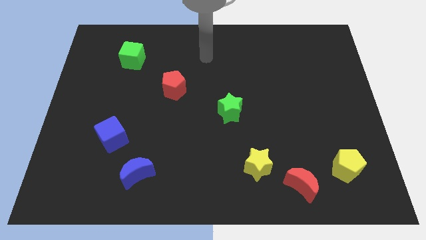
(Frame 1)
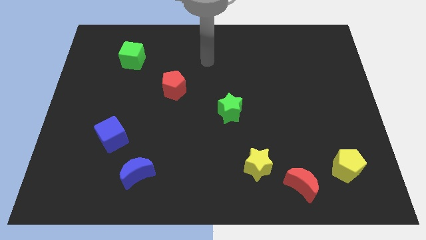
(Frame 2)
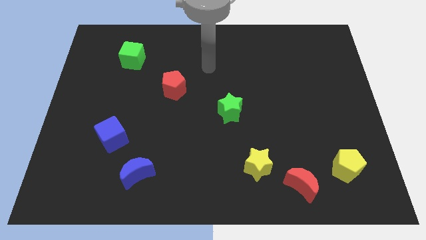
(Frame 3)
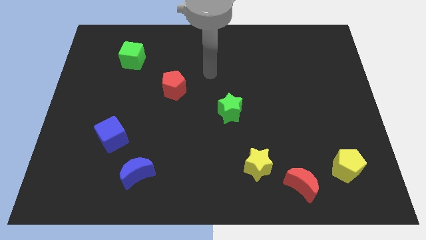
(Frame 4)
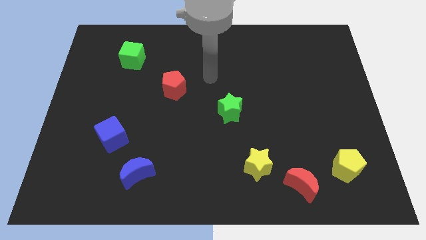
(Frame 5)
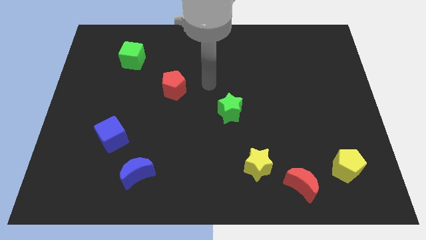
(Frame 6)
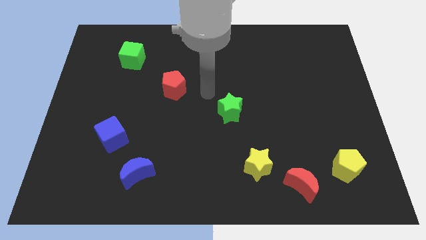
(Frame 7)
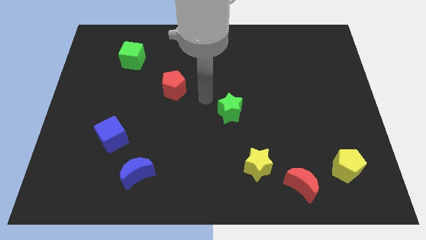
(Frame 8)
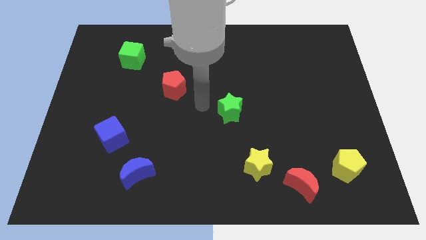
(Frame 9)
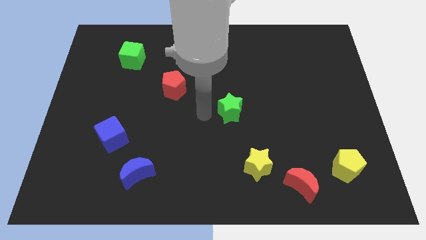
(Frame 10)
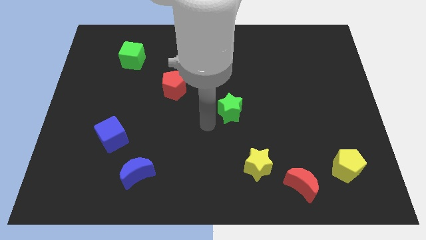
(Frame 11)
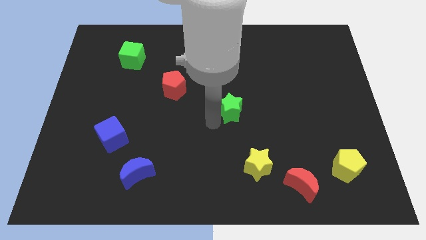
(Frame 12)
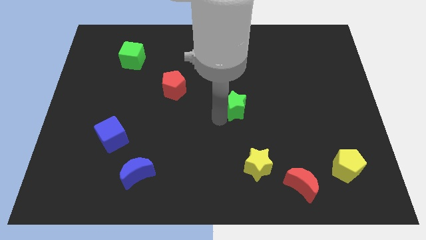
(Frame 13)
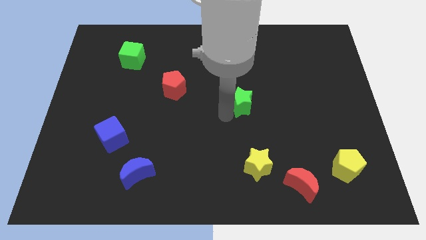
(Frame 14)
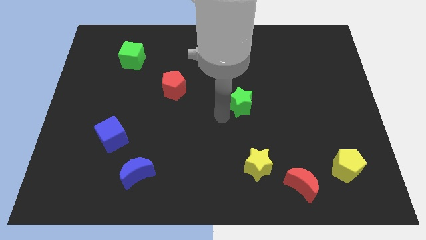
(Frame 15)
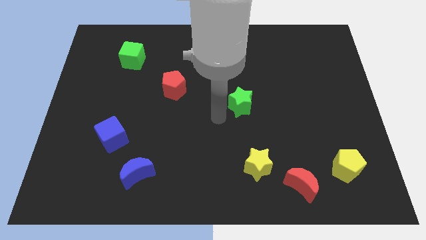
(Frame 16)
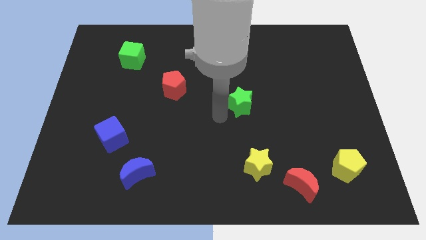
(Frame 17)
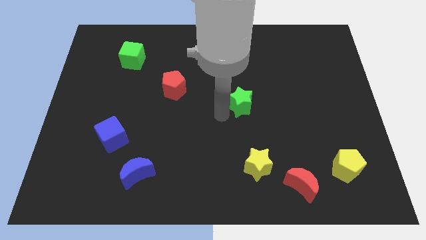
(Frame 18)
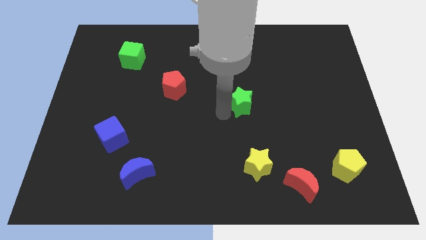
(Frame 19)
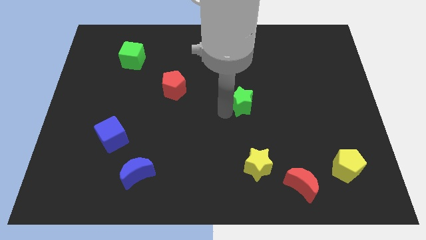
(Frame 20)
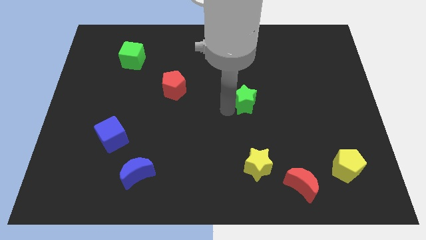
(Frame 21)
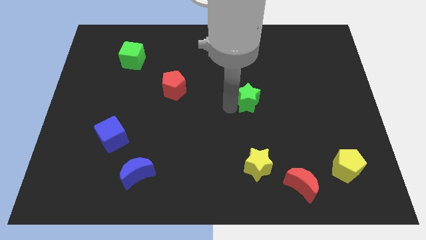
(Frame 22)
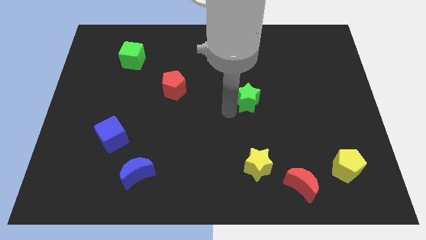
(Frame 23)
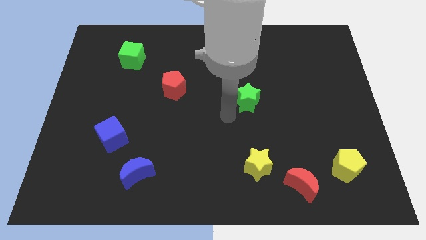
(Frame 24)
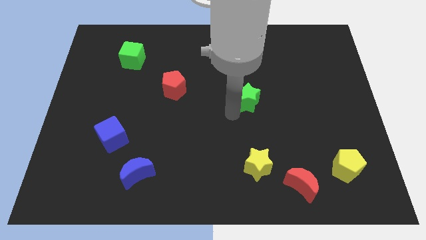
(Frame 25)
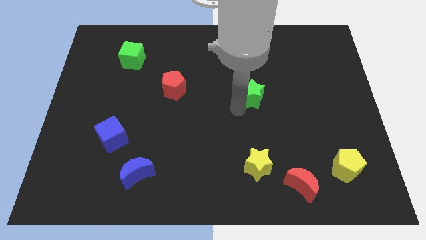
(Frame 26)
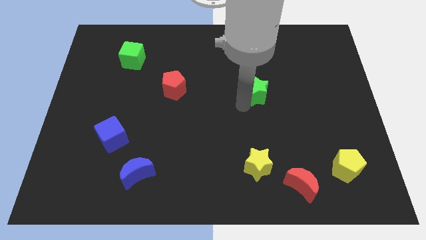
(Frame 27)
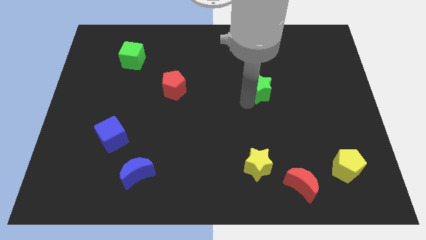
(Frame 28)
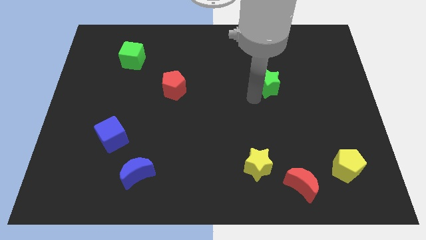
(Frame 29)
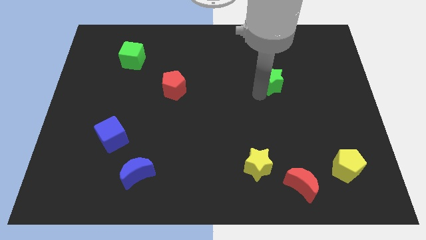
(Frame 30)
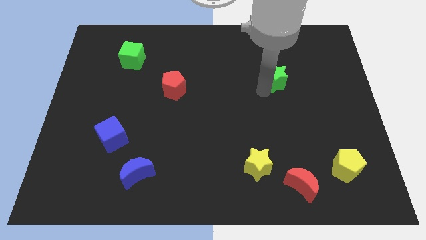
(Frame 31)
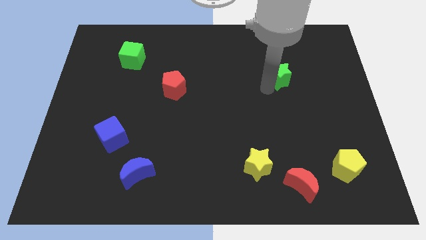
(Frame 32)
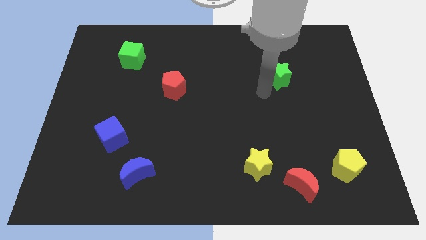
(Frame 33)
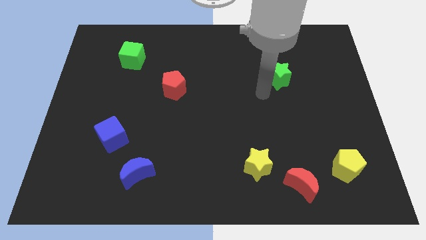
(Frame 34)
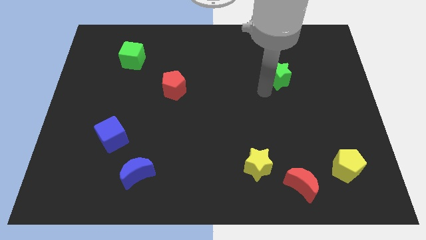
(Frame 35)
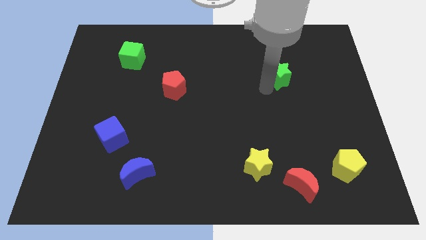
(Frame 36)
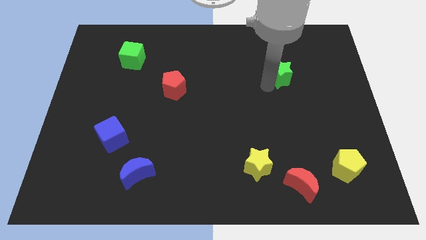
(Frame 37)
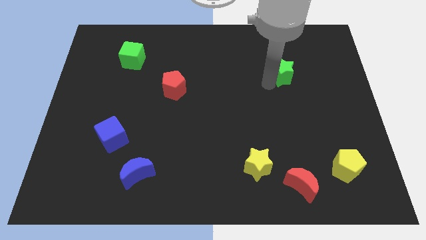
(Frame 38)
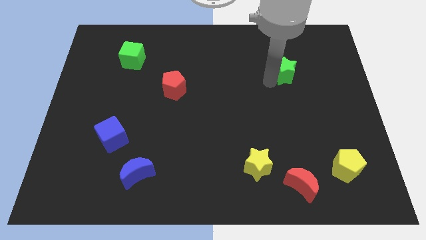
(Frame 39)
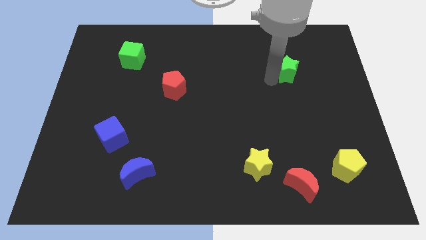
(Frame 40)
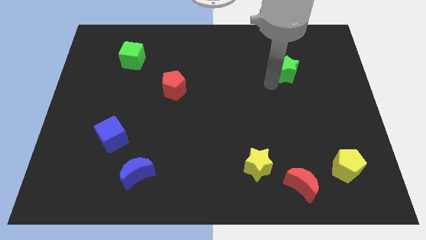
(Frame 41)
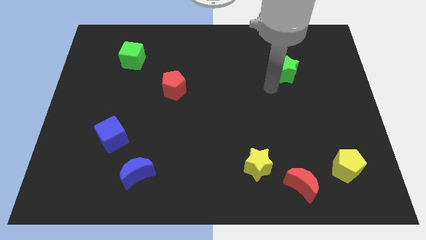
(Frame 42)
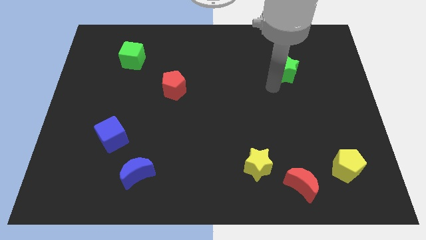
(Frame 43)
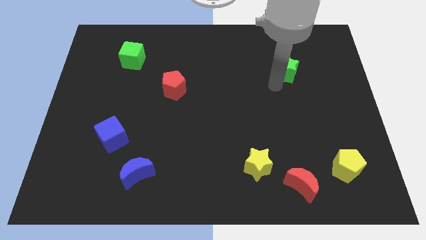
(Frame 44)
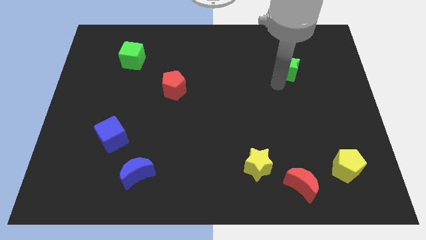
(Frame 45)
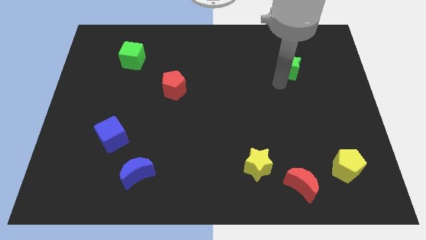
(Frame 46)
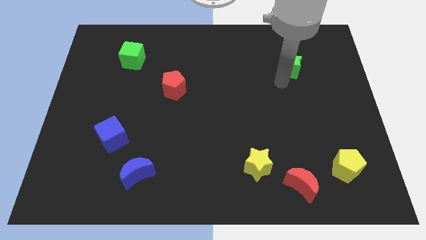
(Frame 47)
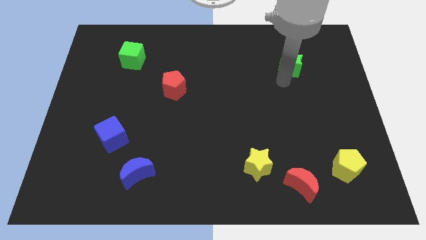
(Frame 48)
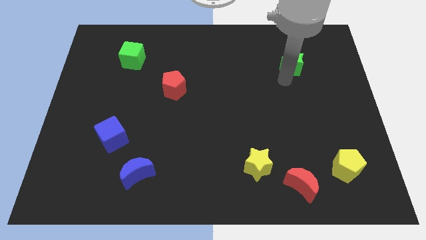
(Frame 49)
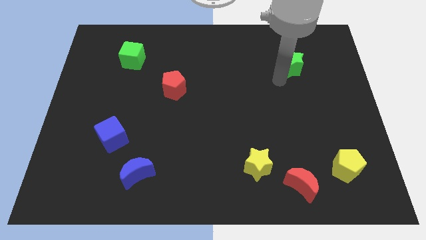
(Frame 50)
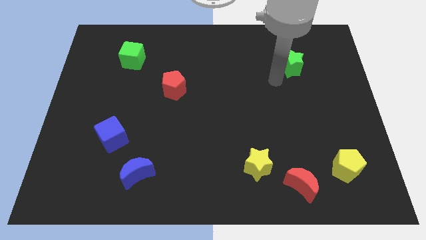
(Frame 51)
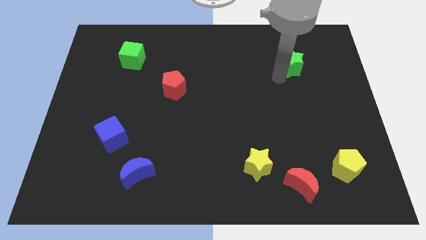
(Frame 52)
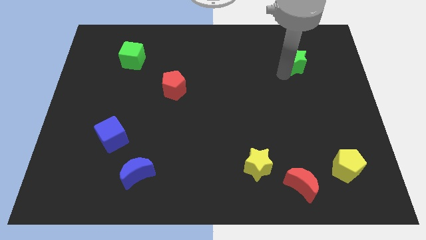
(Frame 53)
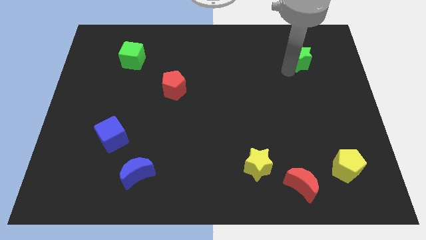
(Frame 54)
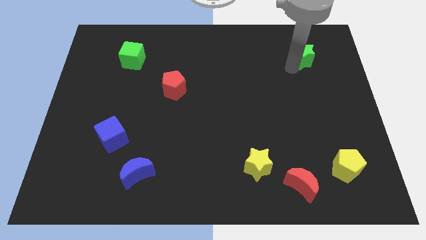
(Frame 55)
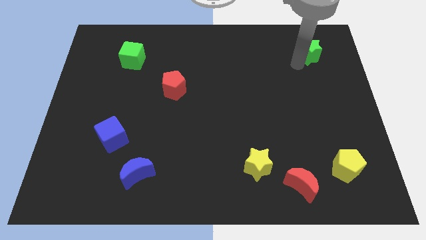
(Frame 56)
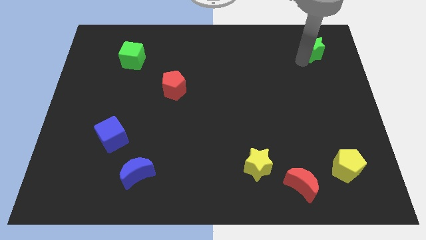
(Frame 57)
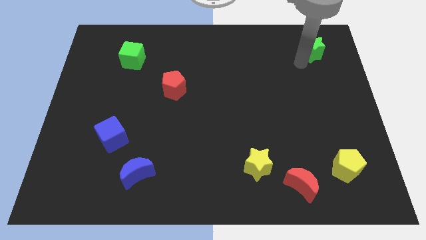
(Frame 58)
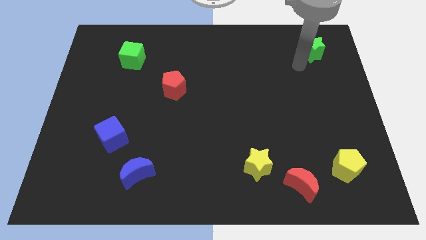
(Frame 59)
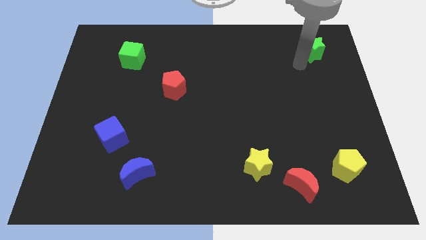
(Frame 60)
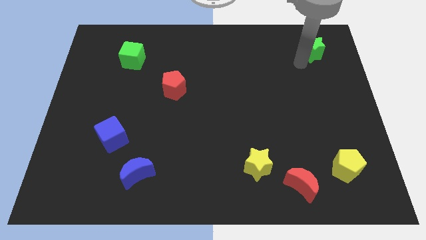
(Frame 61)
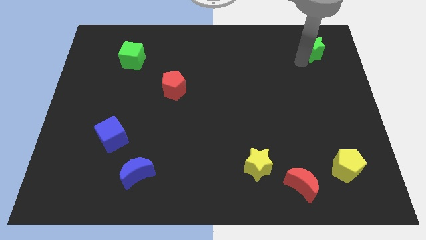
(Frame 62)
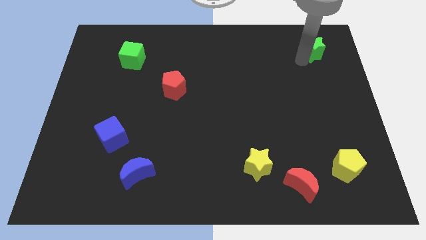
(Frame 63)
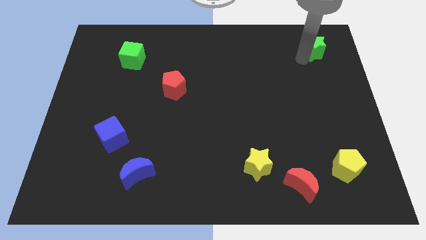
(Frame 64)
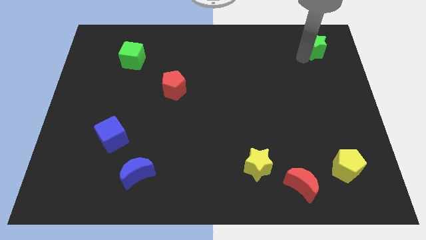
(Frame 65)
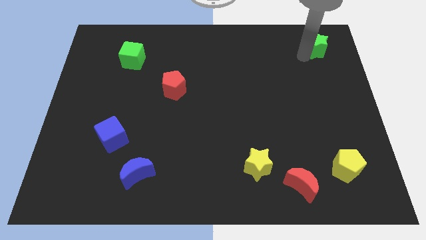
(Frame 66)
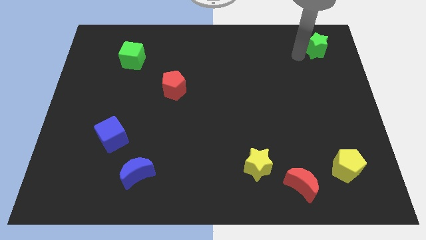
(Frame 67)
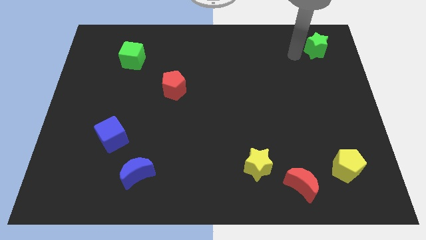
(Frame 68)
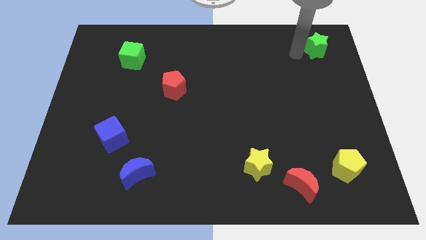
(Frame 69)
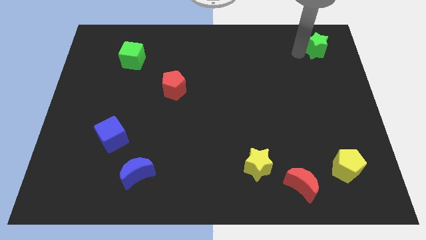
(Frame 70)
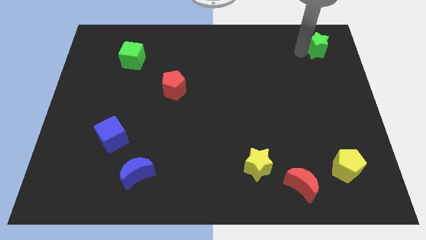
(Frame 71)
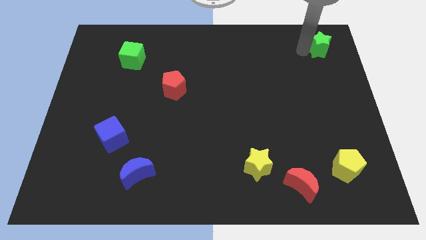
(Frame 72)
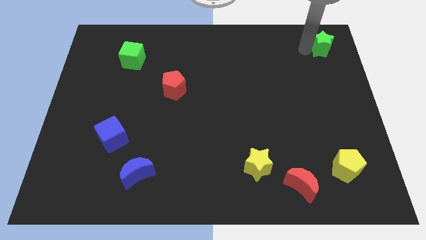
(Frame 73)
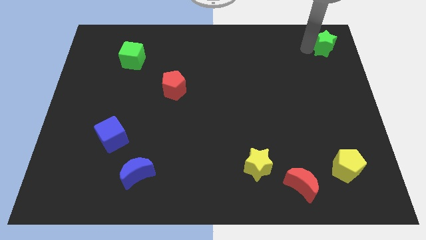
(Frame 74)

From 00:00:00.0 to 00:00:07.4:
slide the green star to the top right of the board
